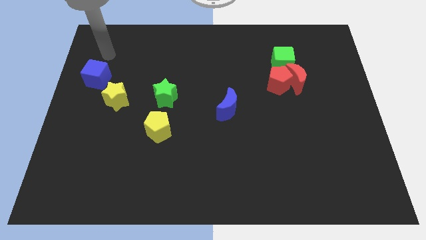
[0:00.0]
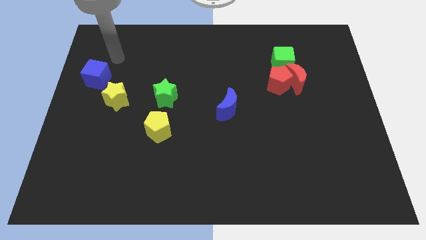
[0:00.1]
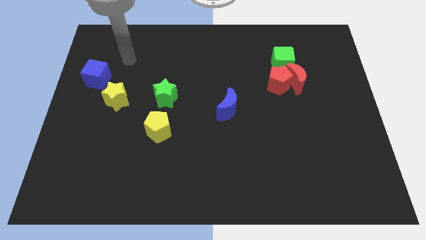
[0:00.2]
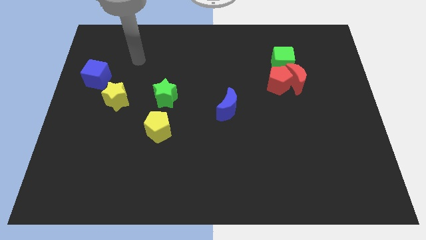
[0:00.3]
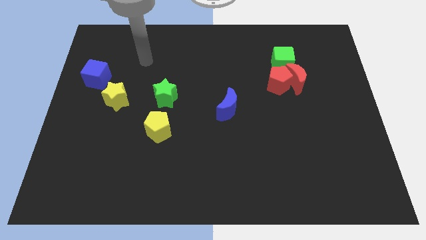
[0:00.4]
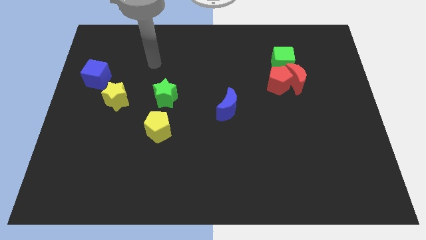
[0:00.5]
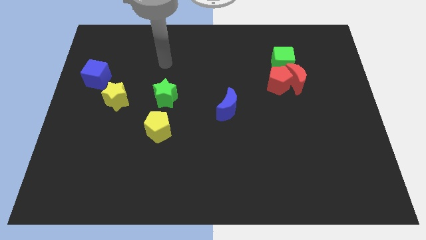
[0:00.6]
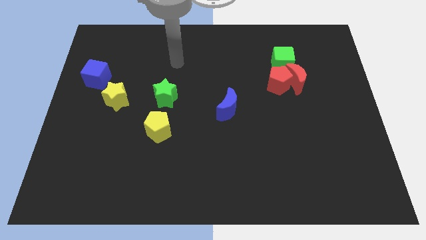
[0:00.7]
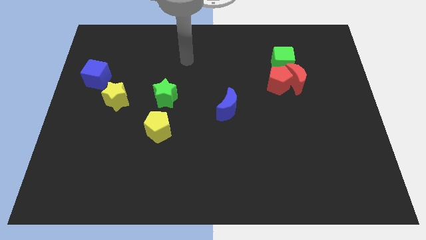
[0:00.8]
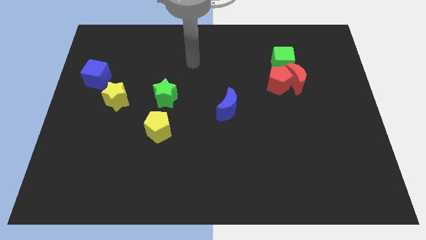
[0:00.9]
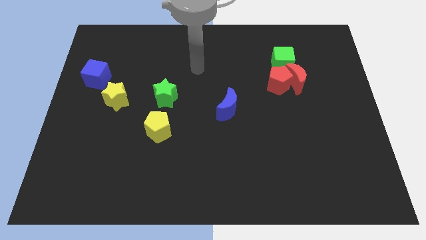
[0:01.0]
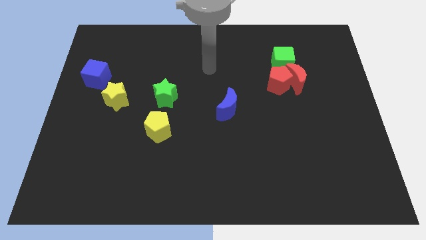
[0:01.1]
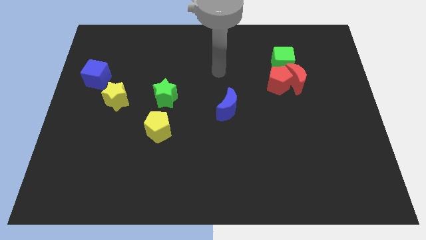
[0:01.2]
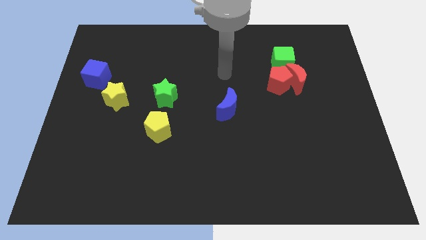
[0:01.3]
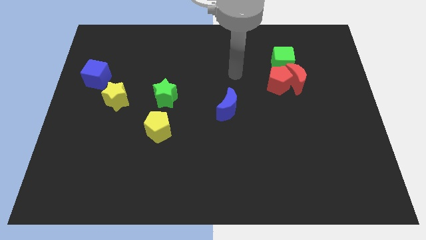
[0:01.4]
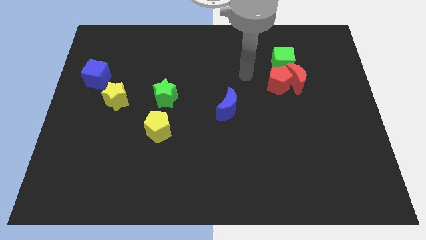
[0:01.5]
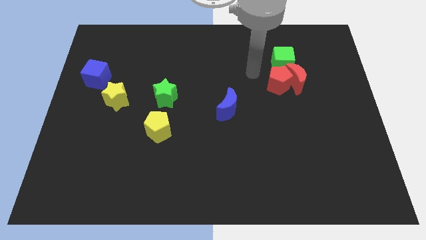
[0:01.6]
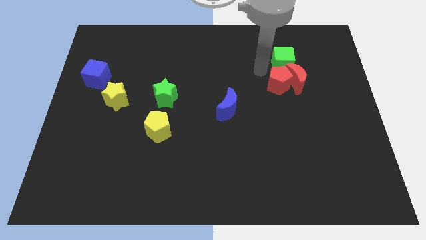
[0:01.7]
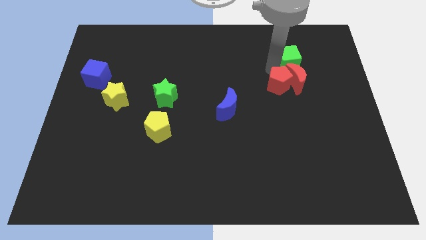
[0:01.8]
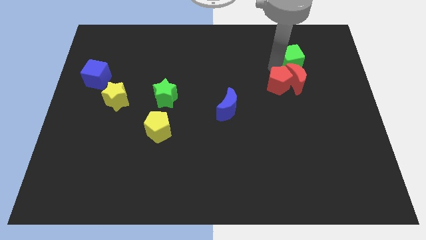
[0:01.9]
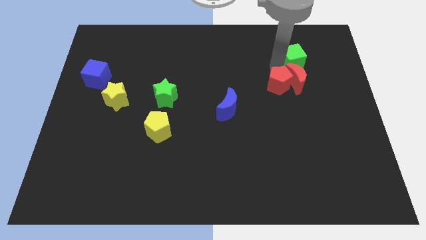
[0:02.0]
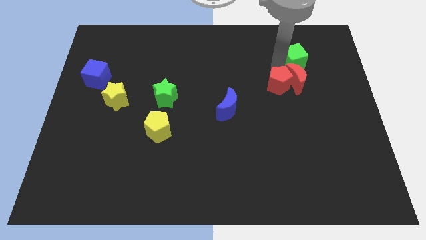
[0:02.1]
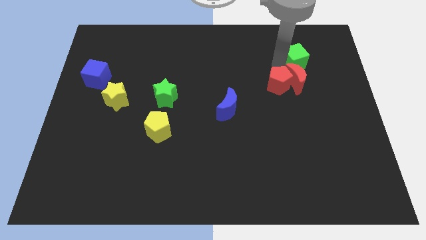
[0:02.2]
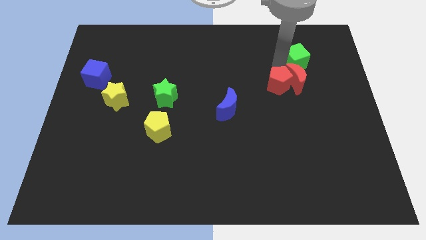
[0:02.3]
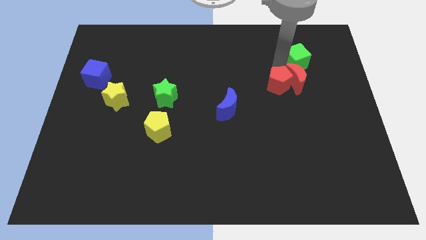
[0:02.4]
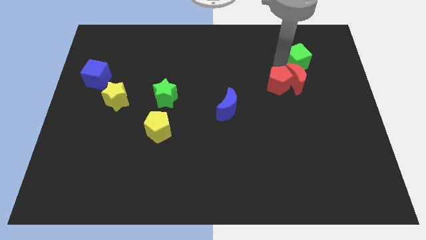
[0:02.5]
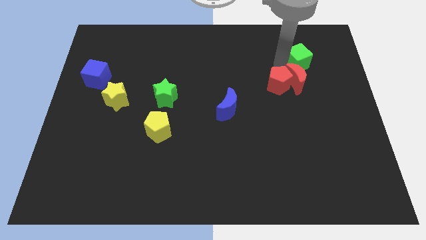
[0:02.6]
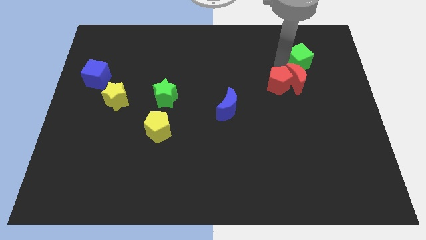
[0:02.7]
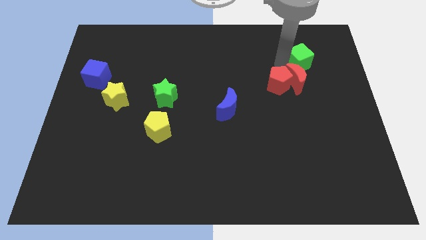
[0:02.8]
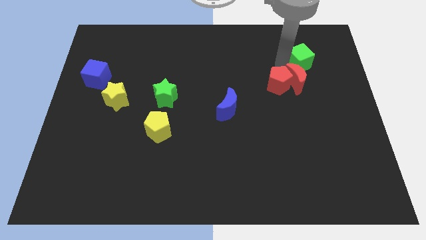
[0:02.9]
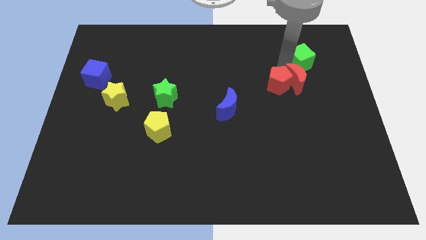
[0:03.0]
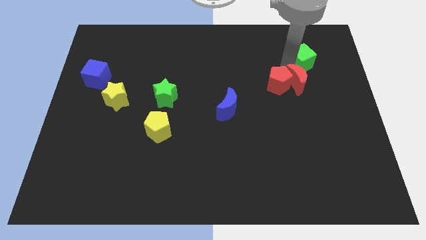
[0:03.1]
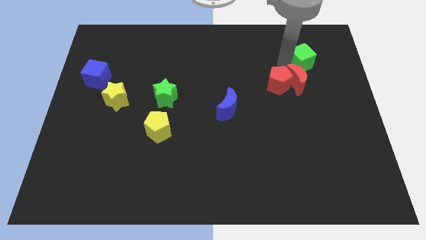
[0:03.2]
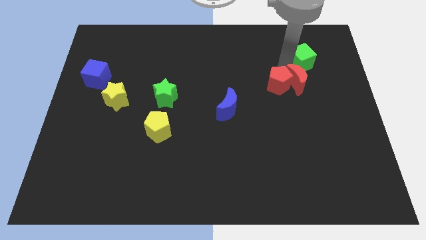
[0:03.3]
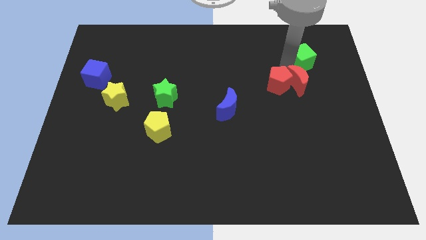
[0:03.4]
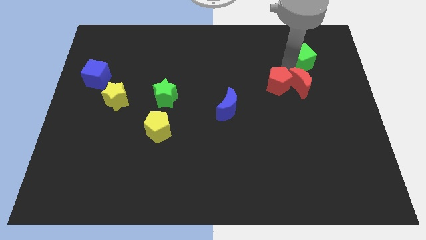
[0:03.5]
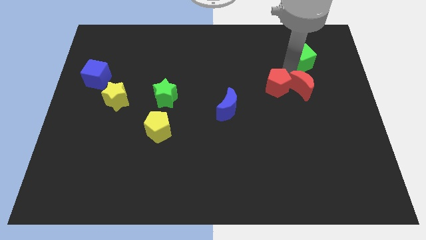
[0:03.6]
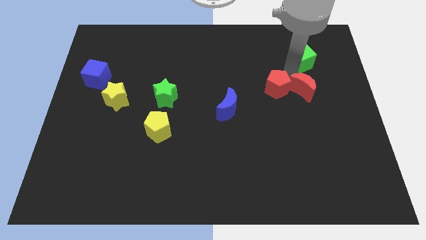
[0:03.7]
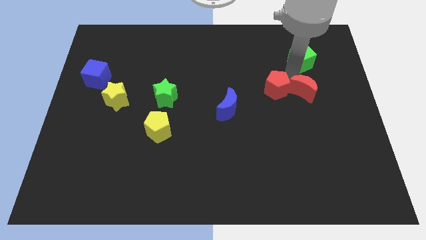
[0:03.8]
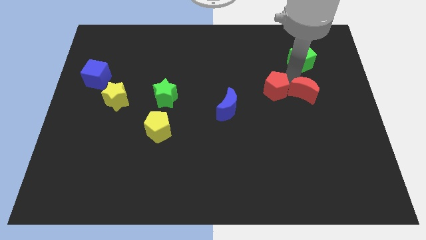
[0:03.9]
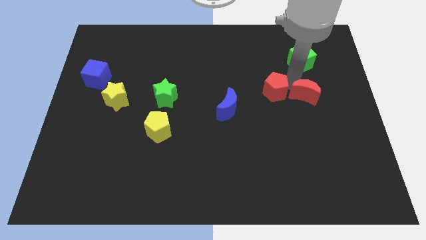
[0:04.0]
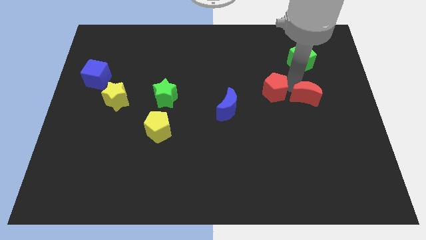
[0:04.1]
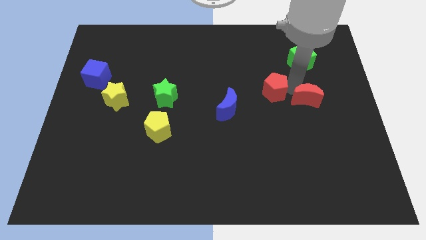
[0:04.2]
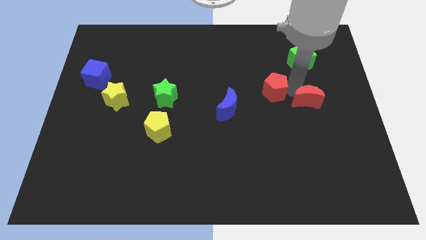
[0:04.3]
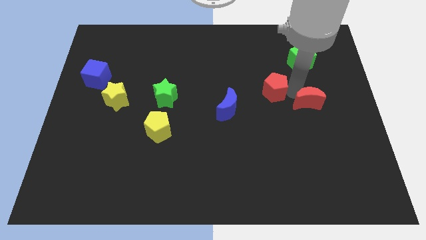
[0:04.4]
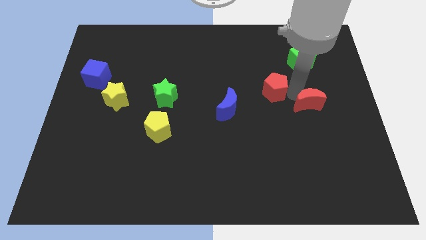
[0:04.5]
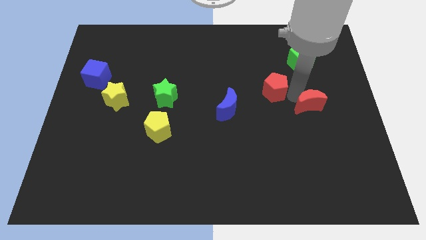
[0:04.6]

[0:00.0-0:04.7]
pull the red moon apart from the red pentagon and green cube

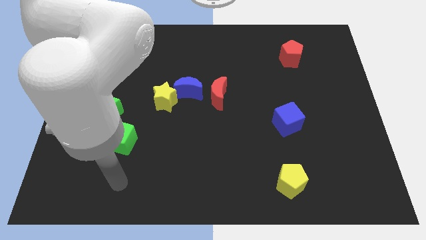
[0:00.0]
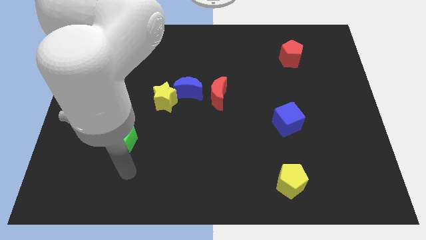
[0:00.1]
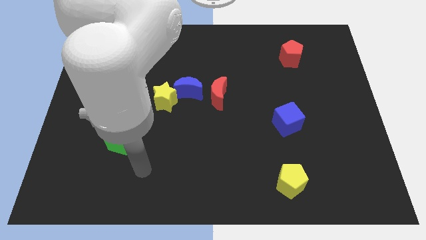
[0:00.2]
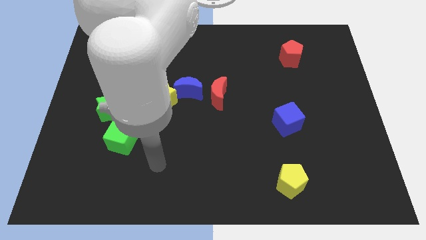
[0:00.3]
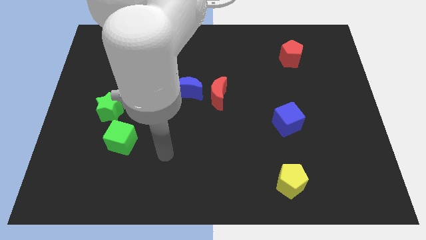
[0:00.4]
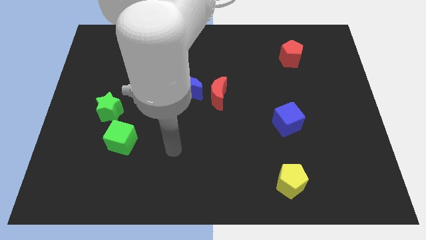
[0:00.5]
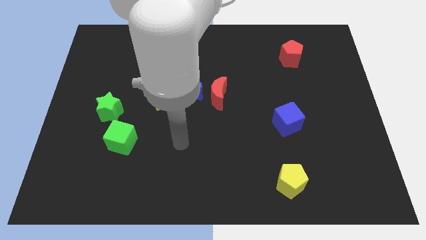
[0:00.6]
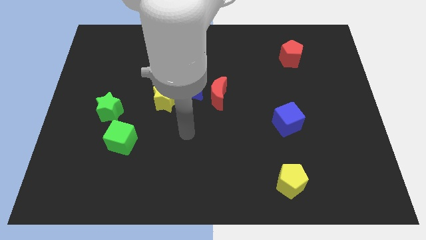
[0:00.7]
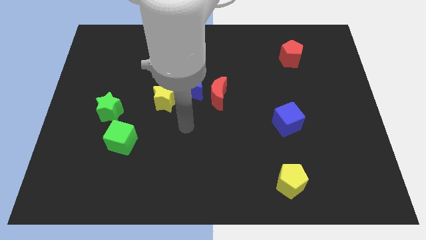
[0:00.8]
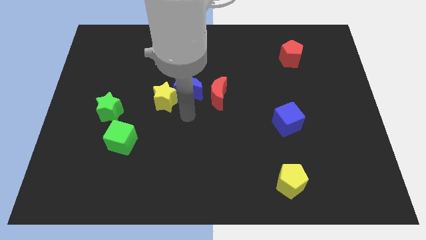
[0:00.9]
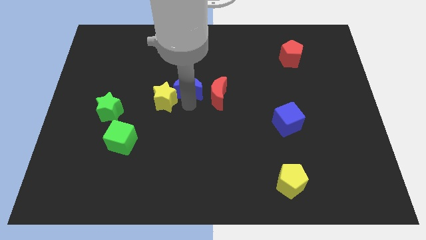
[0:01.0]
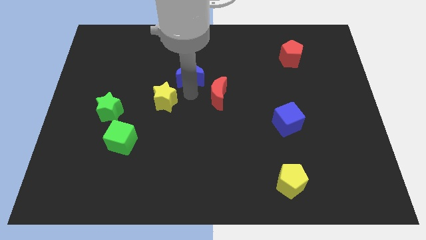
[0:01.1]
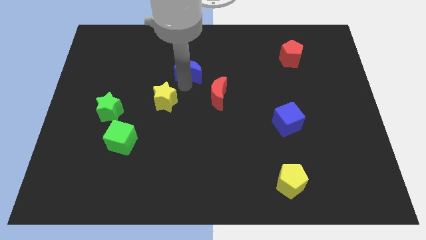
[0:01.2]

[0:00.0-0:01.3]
pull the yellow star apart from the blue moon

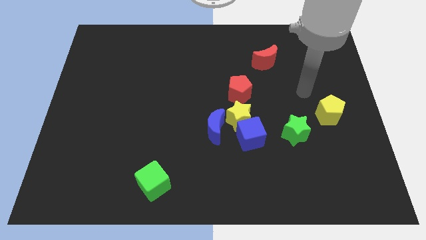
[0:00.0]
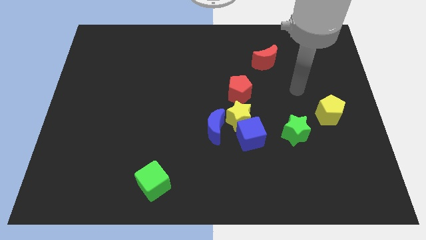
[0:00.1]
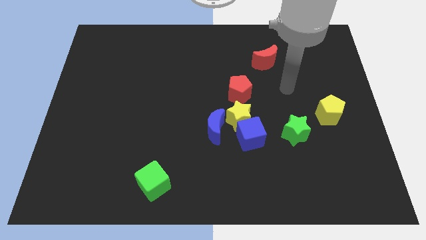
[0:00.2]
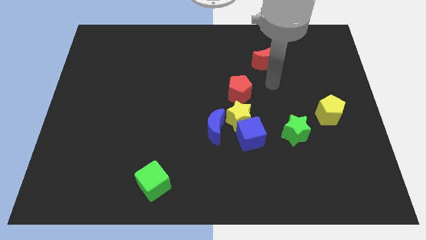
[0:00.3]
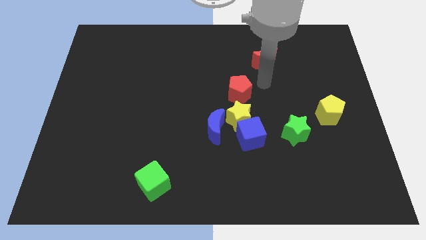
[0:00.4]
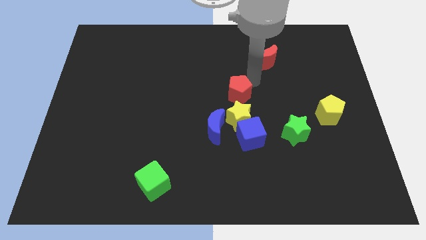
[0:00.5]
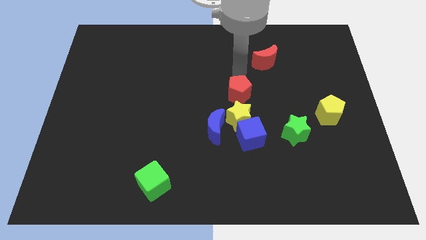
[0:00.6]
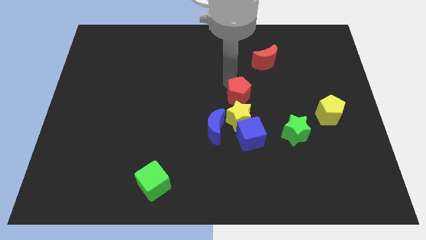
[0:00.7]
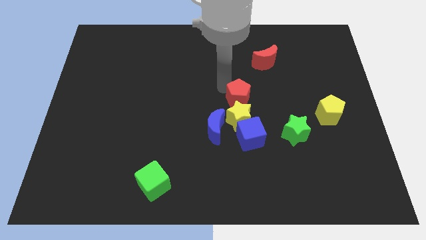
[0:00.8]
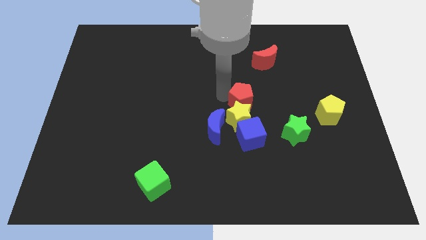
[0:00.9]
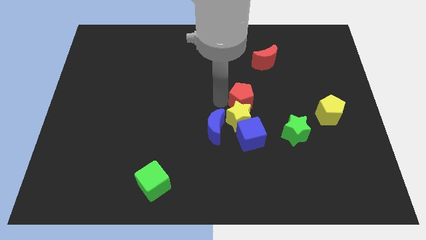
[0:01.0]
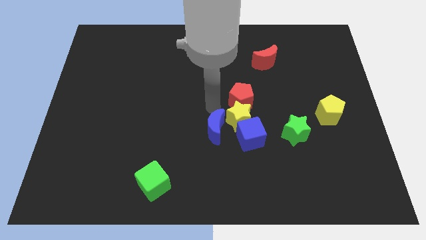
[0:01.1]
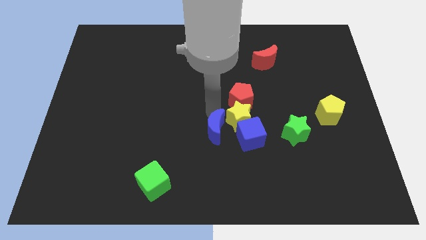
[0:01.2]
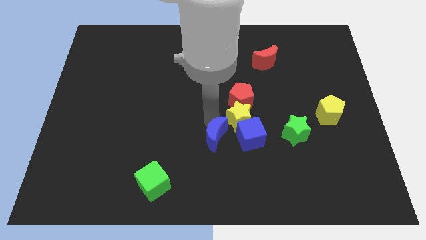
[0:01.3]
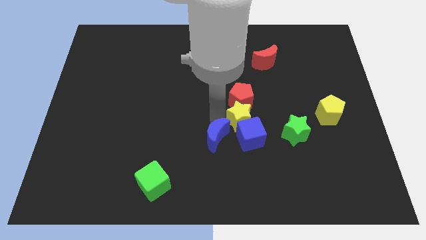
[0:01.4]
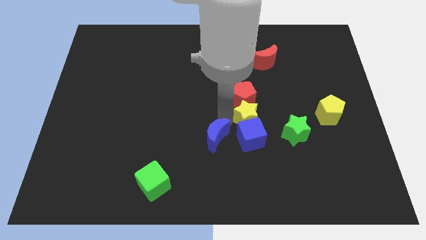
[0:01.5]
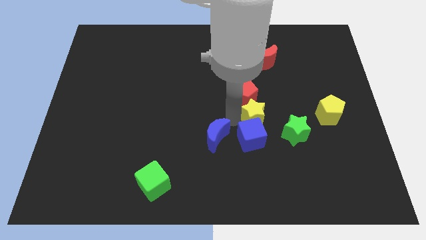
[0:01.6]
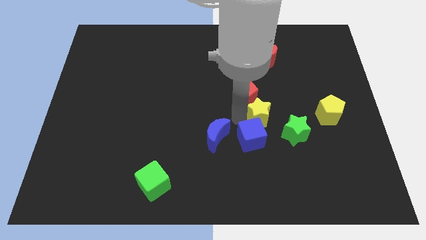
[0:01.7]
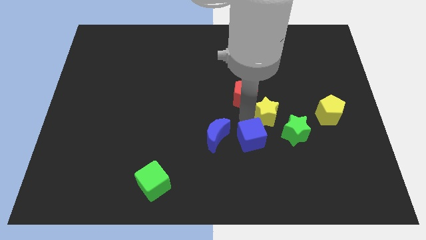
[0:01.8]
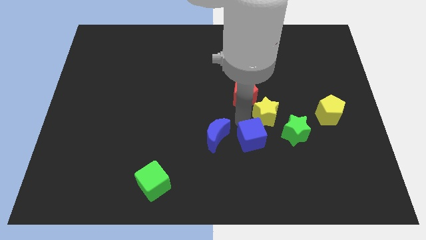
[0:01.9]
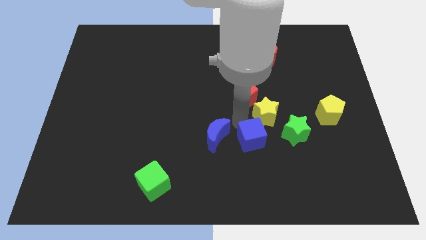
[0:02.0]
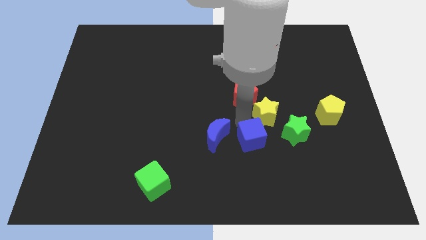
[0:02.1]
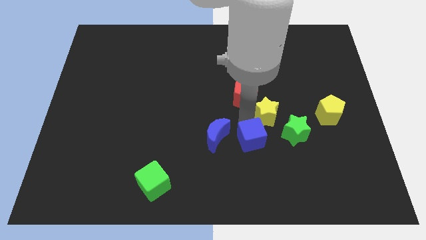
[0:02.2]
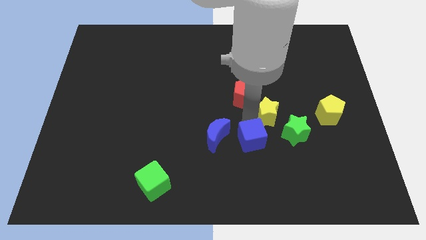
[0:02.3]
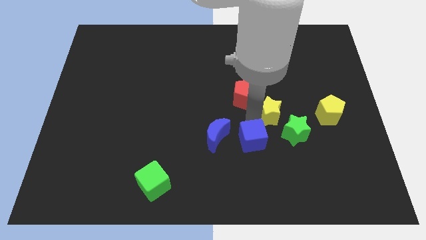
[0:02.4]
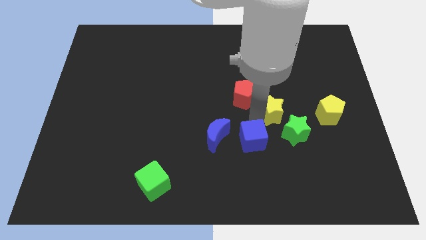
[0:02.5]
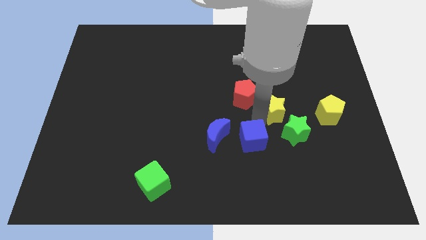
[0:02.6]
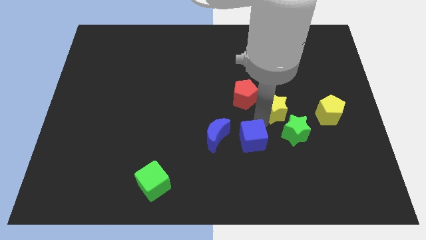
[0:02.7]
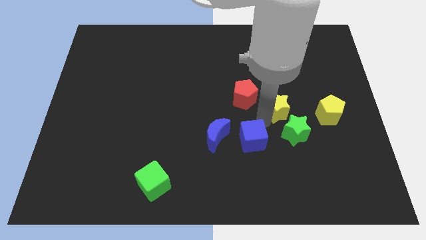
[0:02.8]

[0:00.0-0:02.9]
pull the yellow star apart from the blue cube, blue moon, and red pentagon

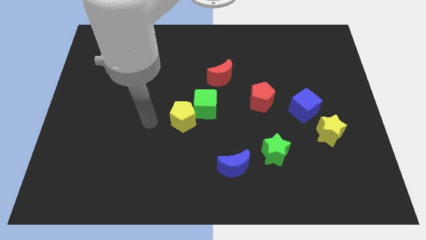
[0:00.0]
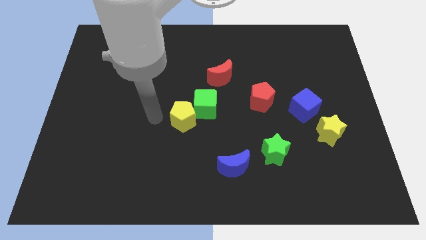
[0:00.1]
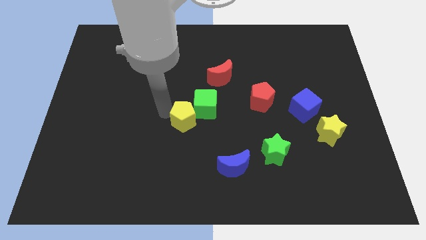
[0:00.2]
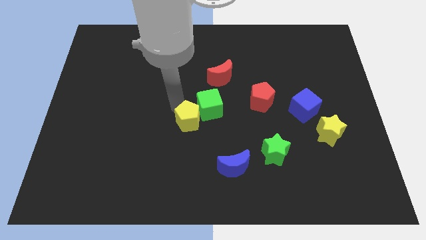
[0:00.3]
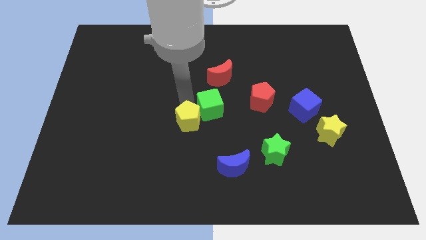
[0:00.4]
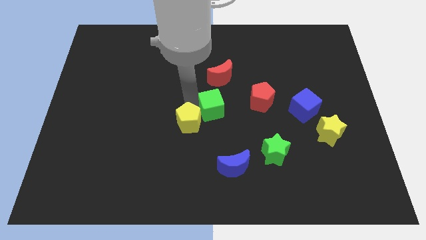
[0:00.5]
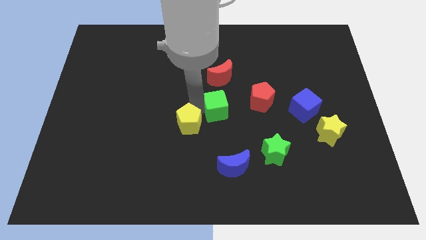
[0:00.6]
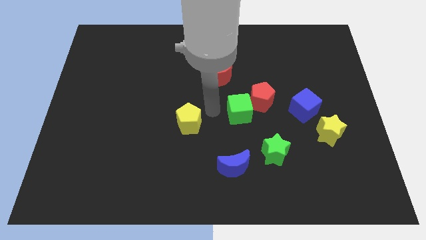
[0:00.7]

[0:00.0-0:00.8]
pull the yellow pentagon apart from the green cube
